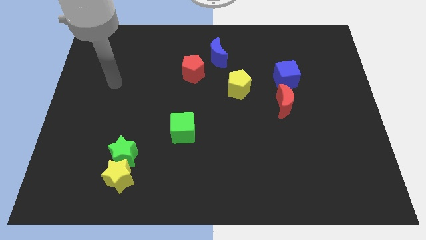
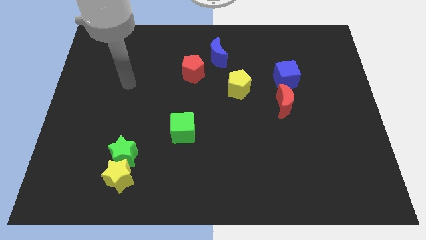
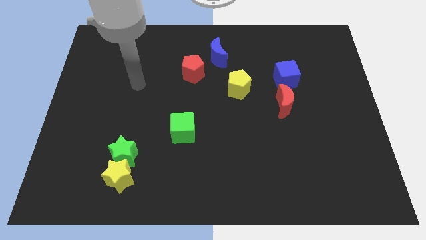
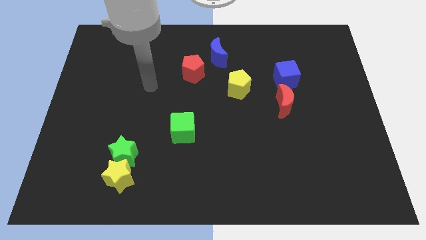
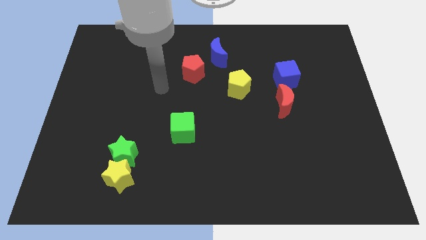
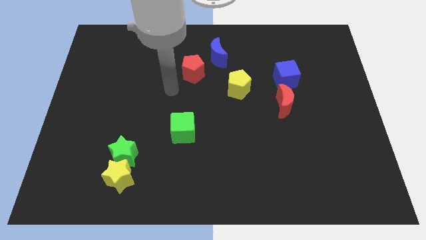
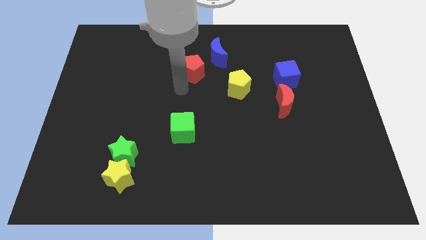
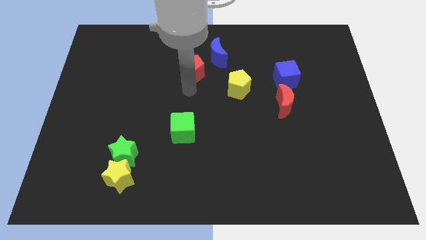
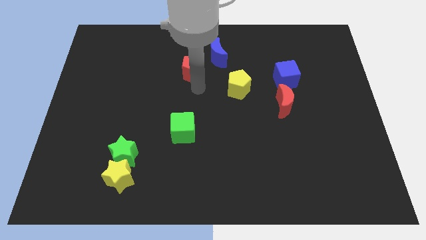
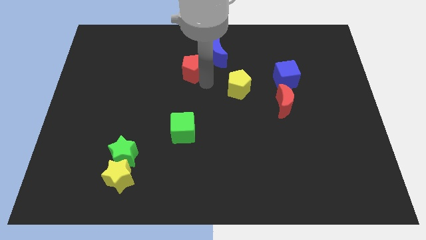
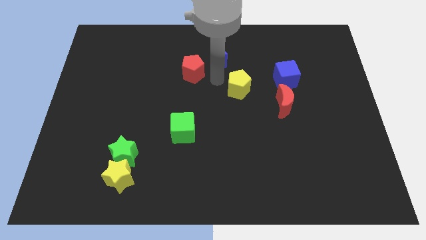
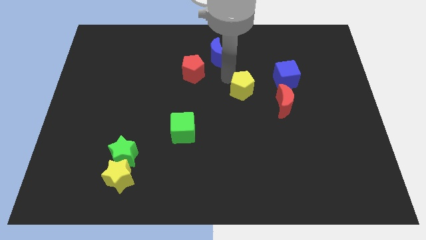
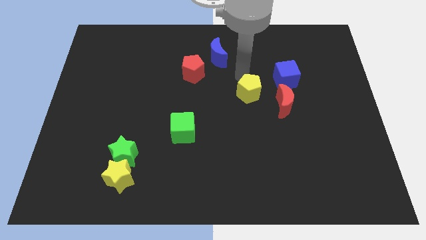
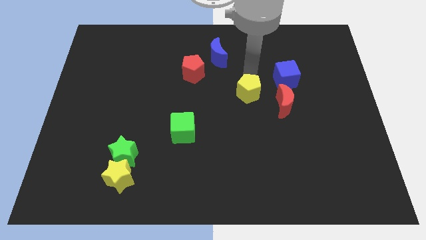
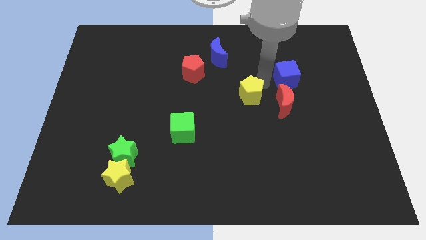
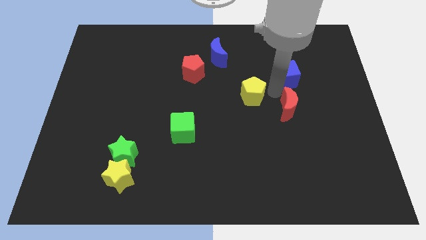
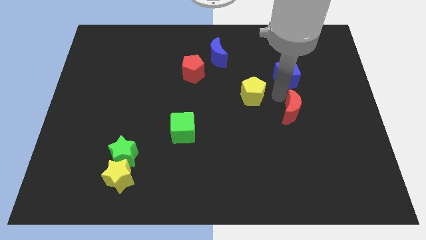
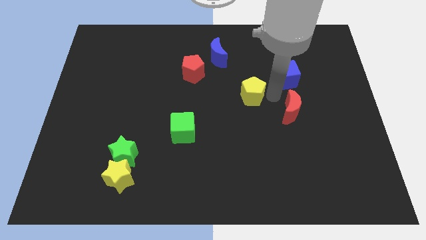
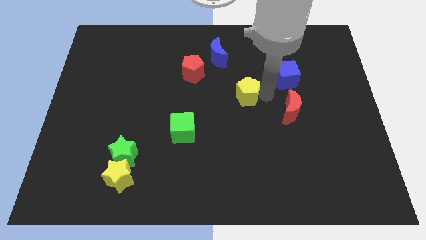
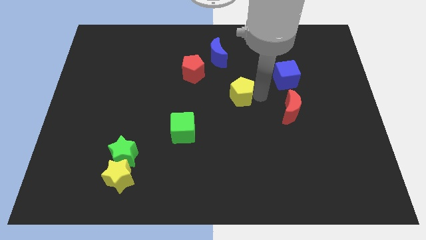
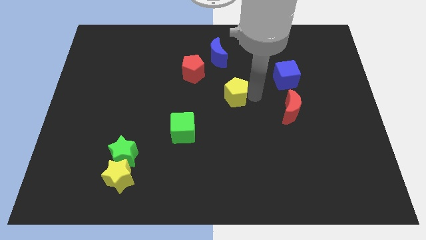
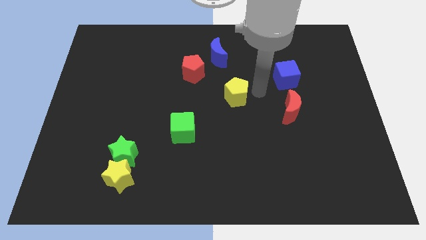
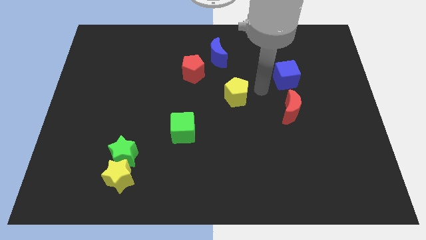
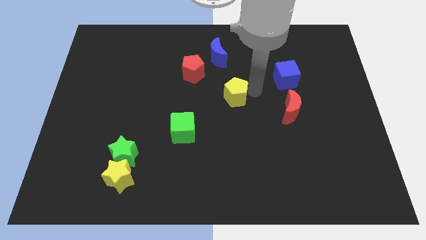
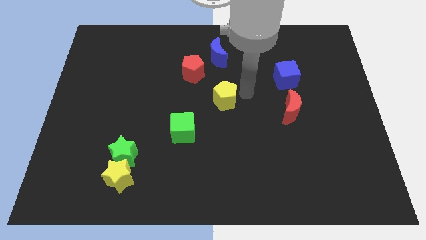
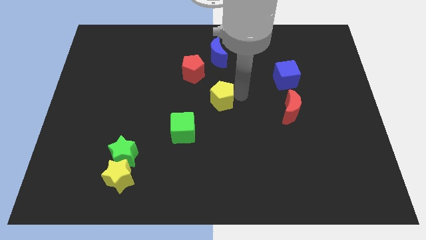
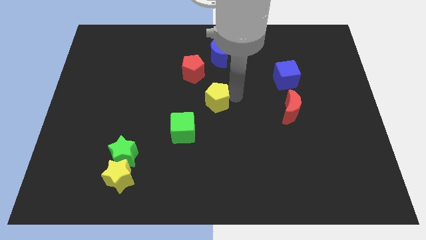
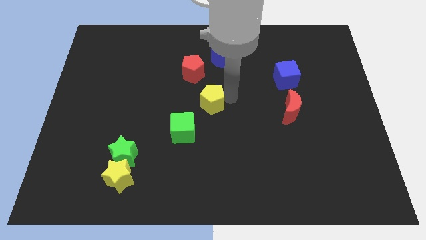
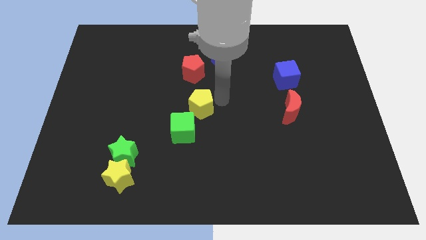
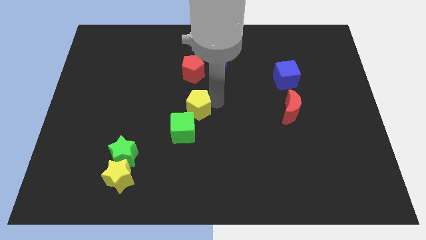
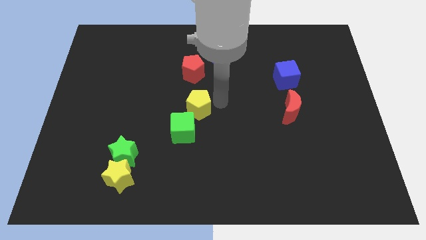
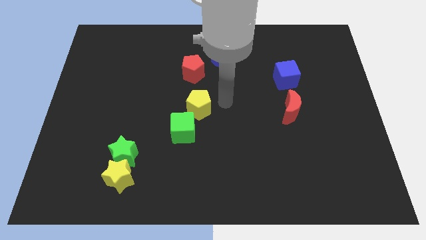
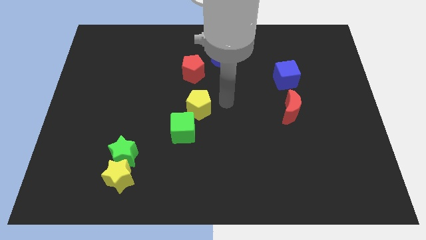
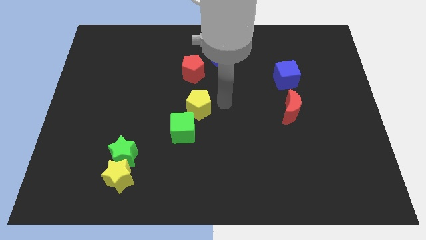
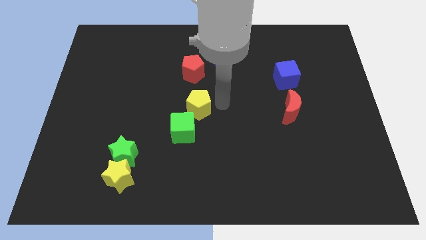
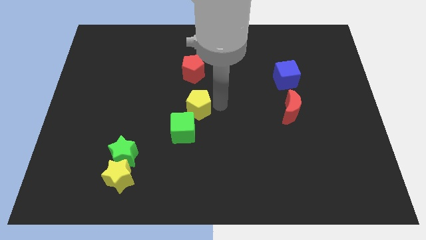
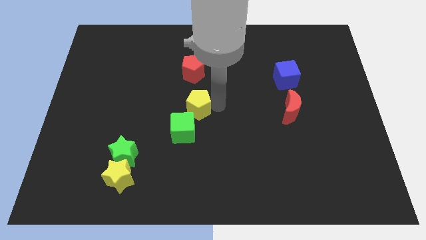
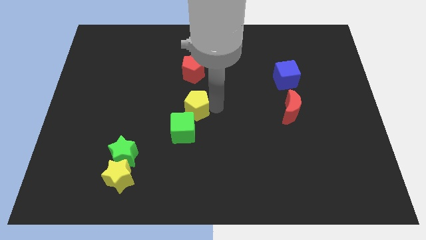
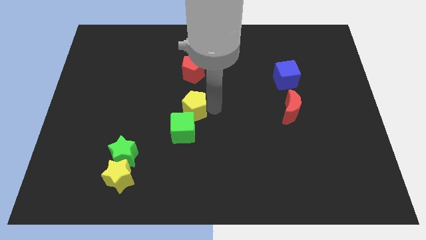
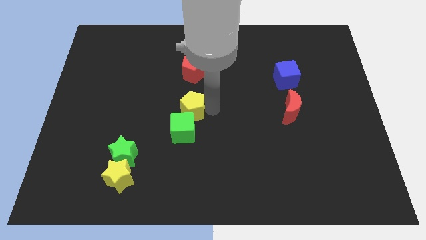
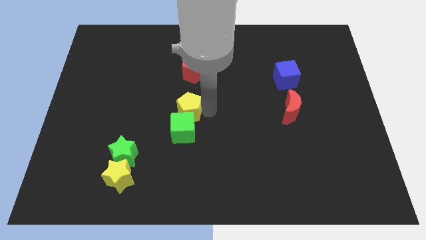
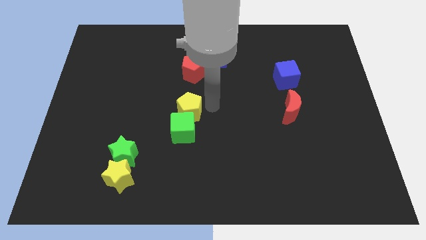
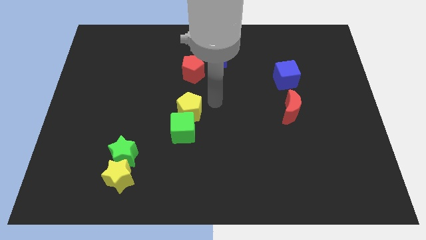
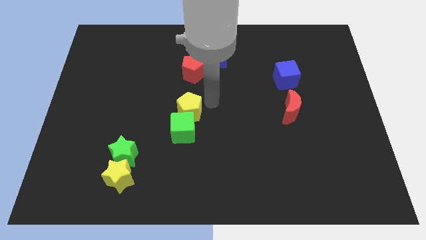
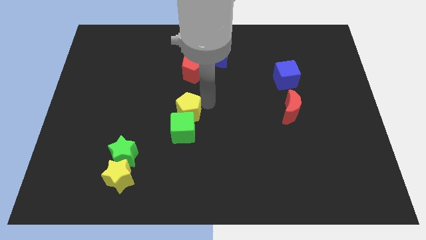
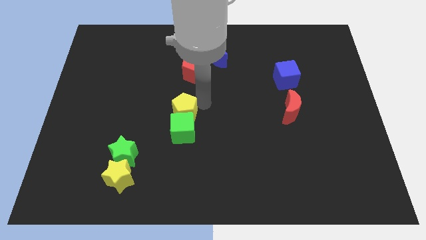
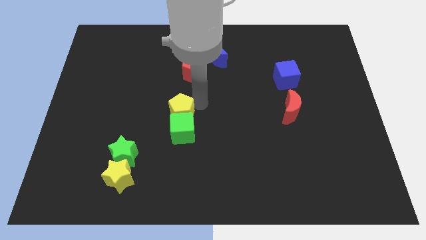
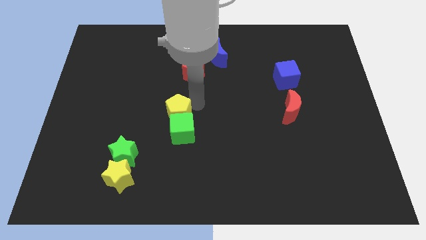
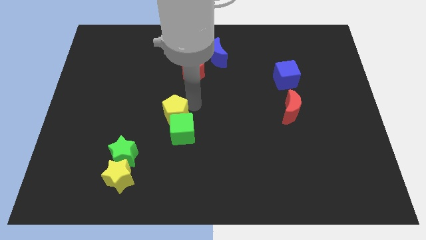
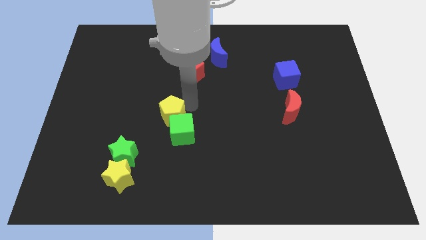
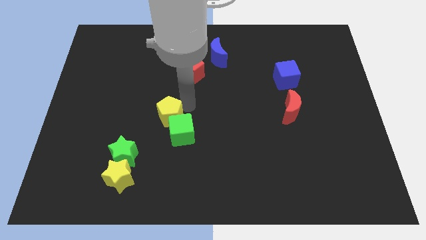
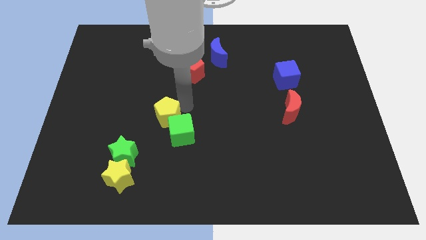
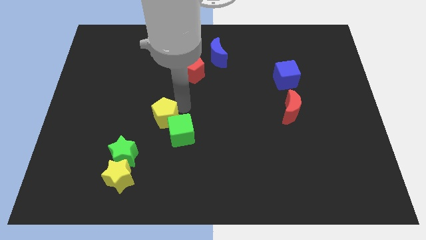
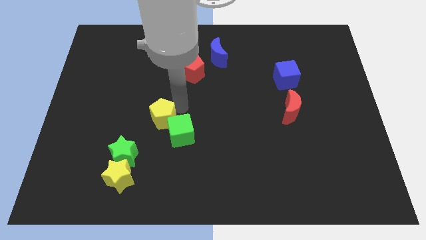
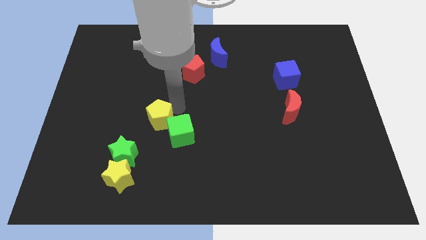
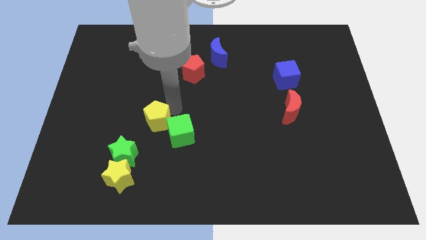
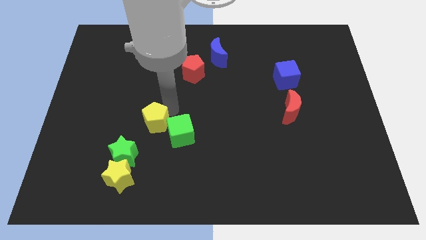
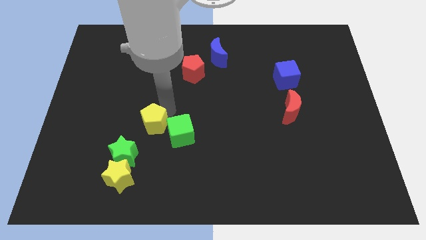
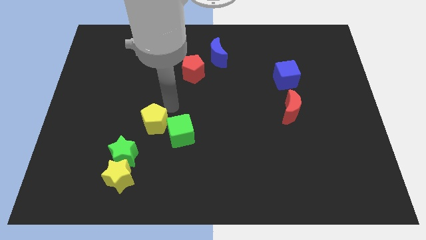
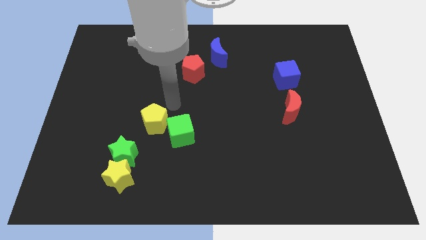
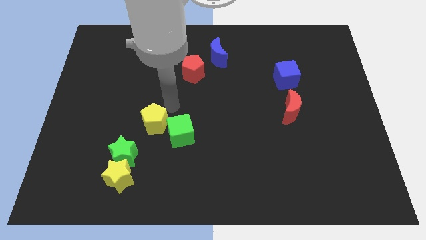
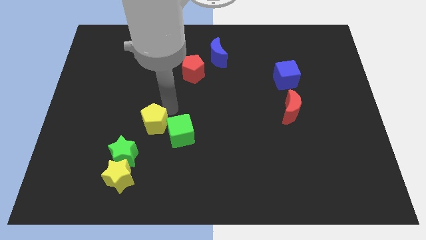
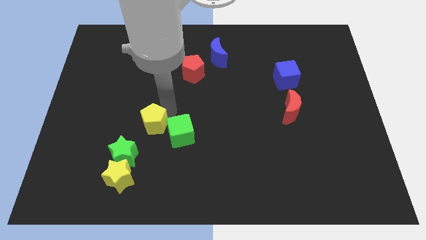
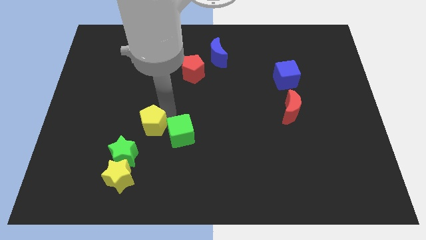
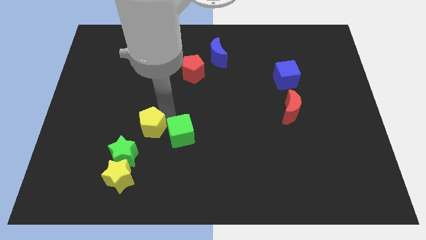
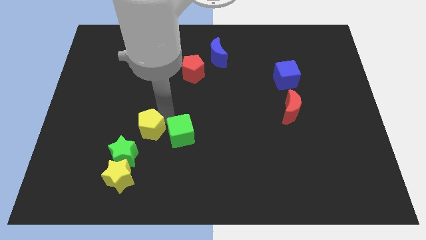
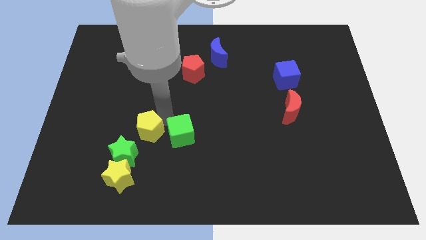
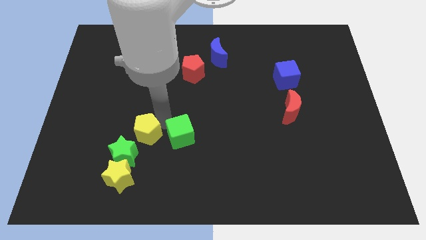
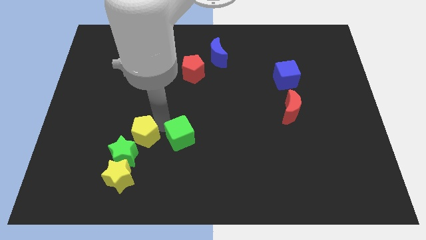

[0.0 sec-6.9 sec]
push the yellow pentagon next to the green star
